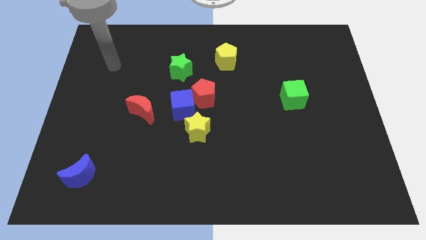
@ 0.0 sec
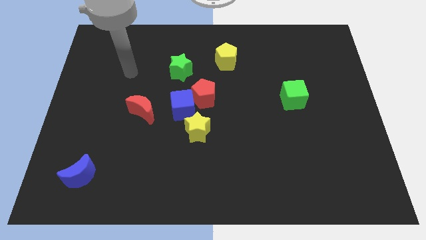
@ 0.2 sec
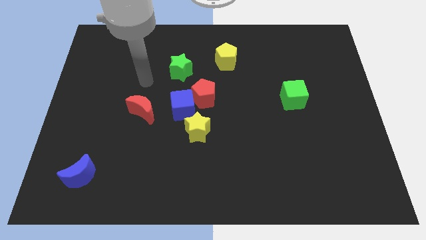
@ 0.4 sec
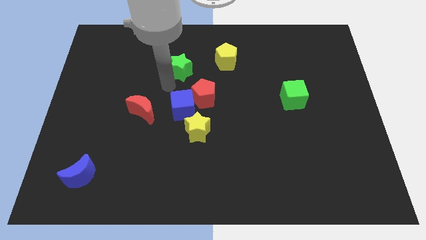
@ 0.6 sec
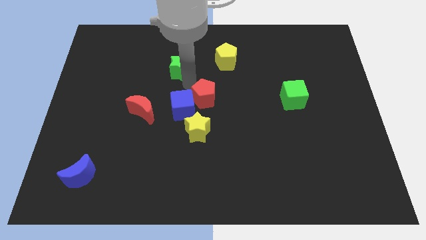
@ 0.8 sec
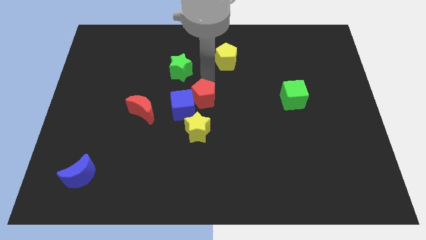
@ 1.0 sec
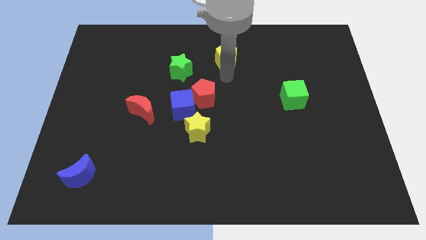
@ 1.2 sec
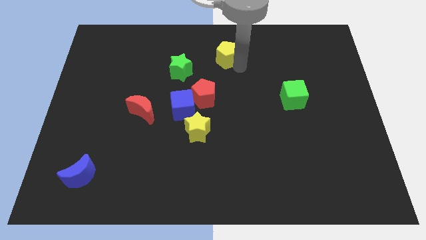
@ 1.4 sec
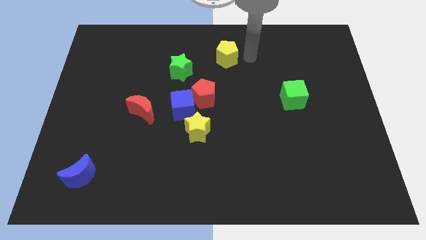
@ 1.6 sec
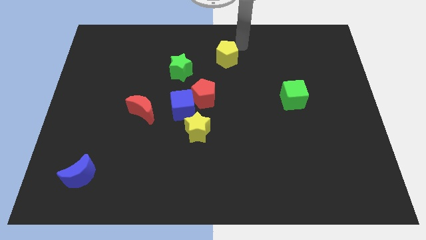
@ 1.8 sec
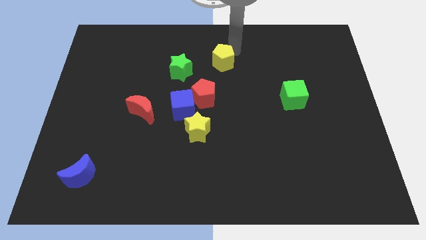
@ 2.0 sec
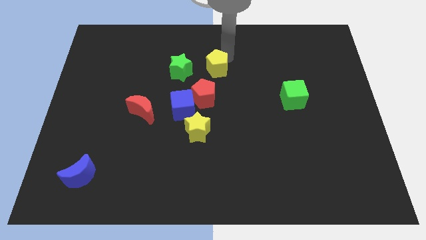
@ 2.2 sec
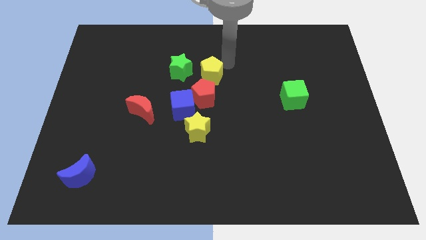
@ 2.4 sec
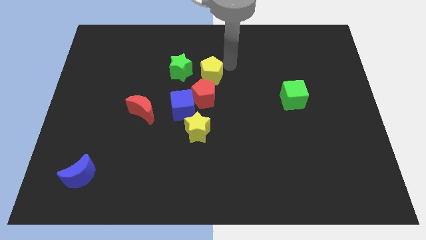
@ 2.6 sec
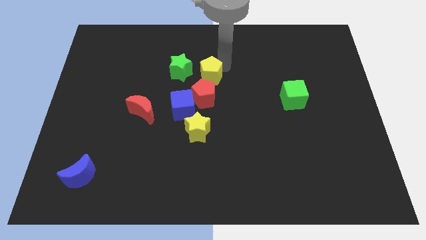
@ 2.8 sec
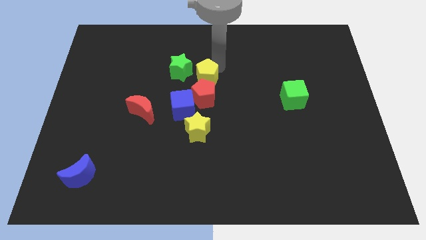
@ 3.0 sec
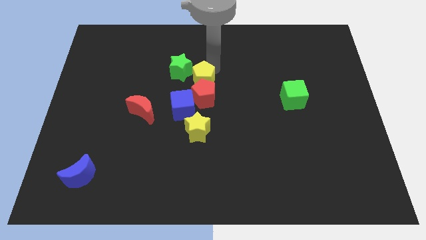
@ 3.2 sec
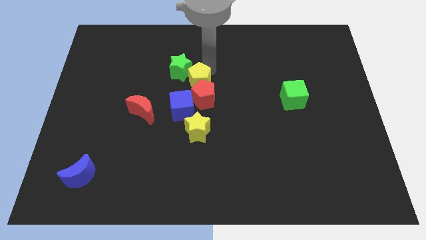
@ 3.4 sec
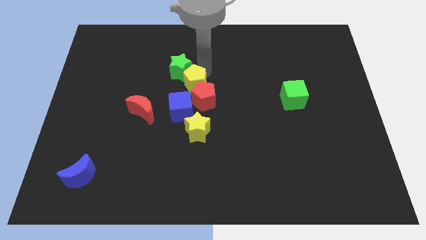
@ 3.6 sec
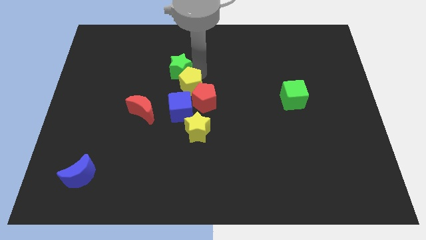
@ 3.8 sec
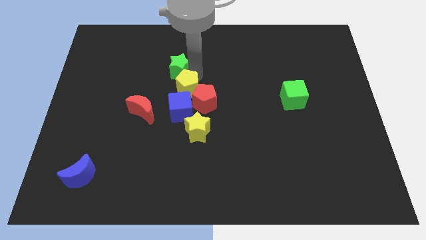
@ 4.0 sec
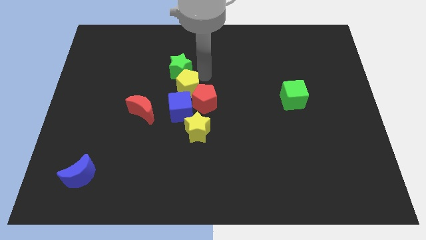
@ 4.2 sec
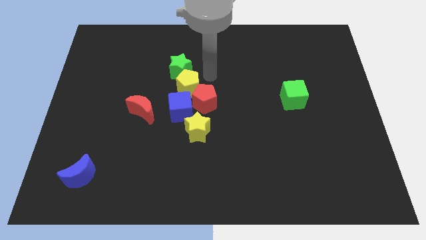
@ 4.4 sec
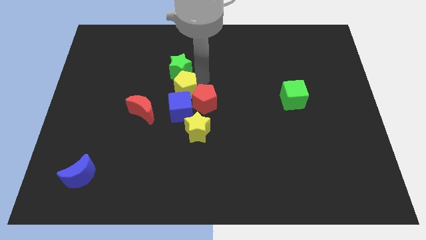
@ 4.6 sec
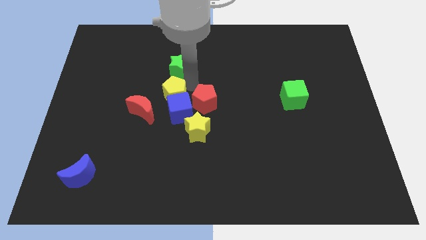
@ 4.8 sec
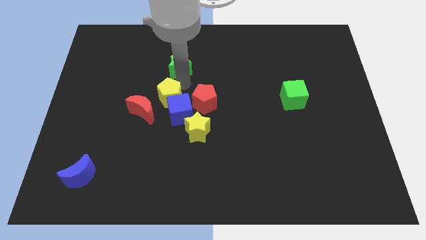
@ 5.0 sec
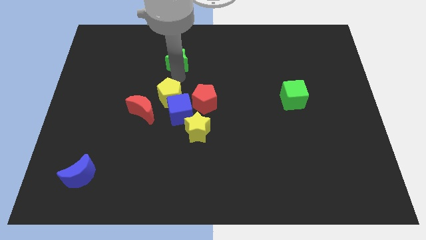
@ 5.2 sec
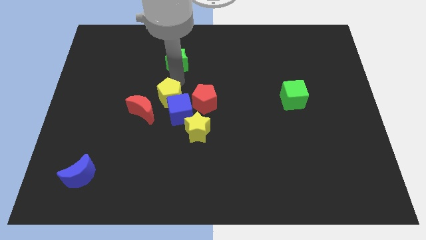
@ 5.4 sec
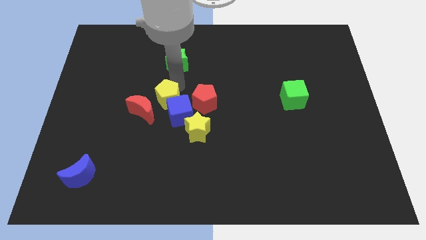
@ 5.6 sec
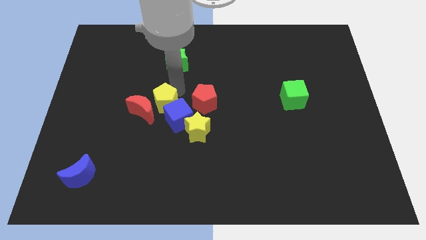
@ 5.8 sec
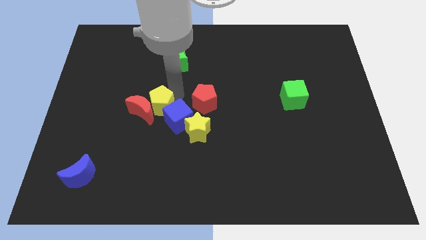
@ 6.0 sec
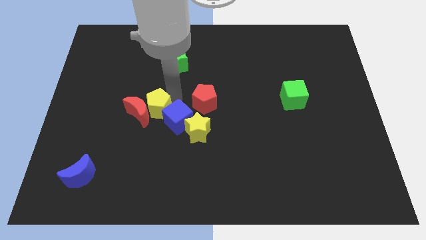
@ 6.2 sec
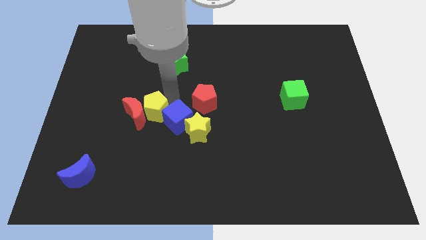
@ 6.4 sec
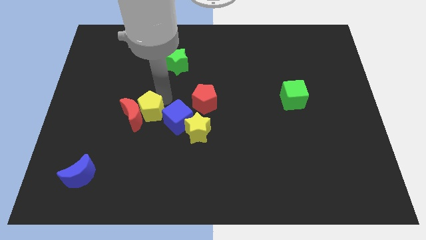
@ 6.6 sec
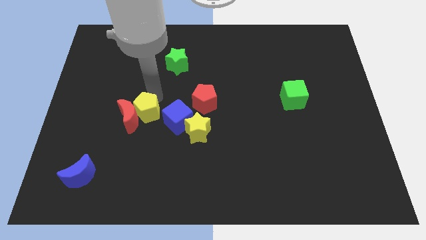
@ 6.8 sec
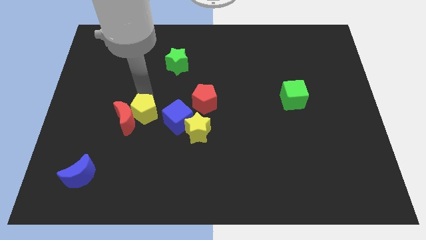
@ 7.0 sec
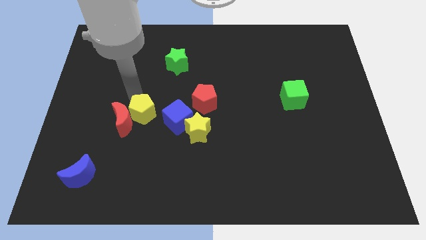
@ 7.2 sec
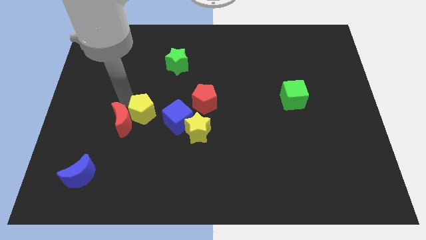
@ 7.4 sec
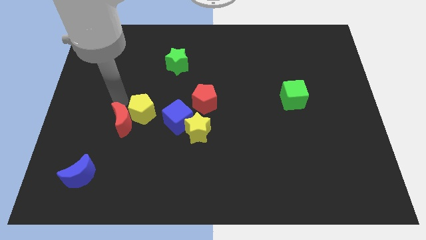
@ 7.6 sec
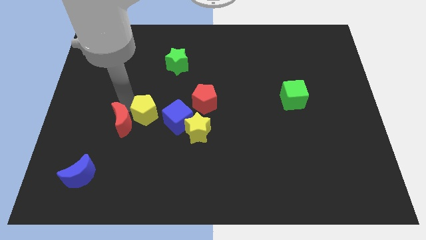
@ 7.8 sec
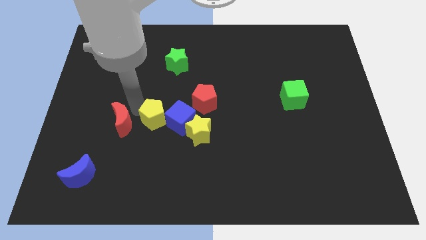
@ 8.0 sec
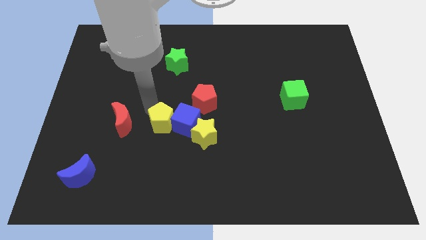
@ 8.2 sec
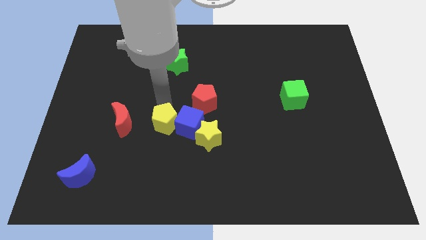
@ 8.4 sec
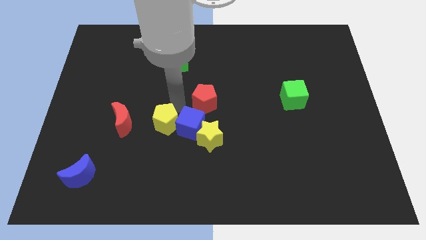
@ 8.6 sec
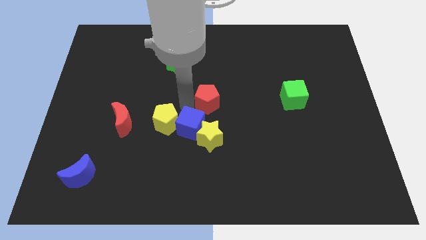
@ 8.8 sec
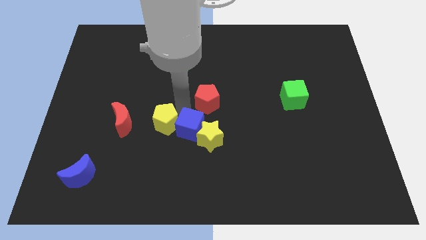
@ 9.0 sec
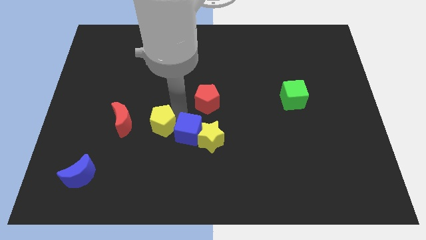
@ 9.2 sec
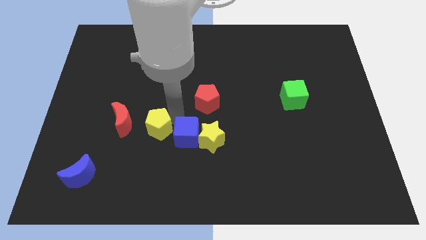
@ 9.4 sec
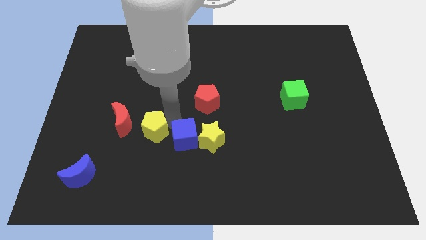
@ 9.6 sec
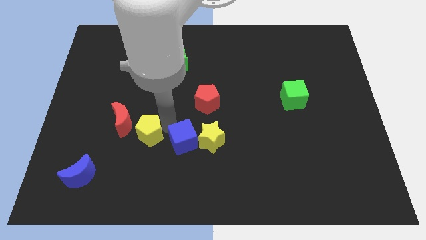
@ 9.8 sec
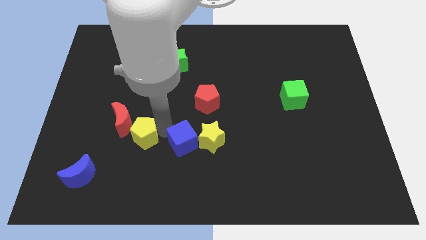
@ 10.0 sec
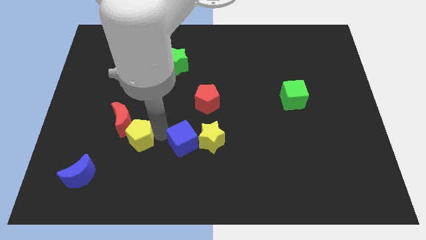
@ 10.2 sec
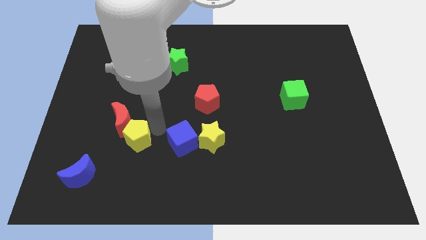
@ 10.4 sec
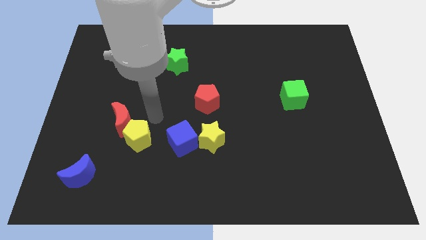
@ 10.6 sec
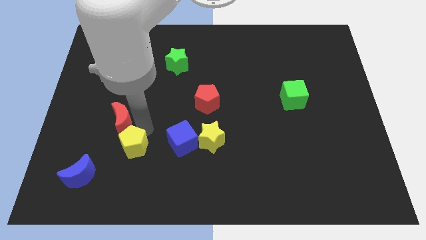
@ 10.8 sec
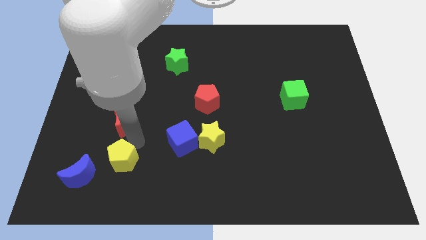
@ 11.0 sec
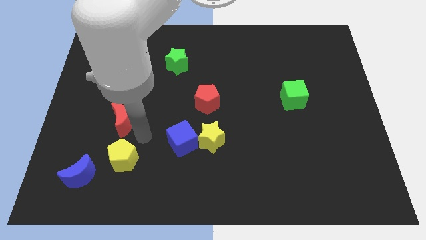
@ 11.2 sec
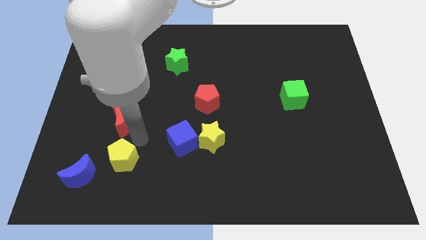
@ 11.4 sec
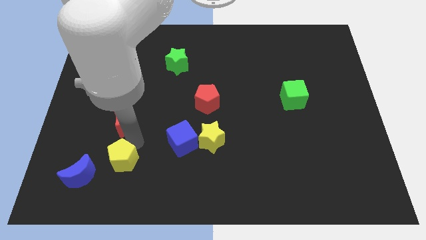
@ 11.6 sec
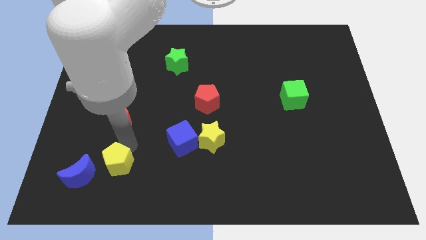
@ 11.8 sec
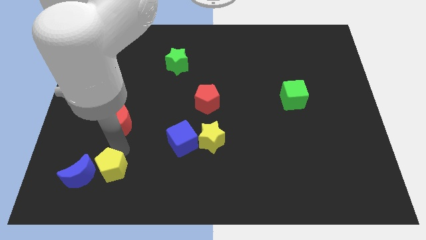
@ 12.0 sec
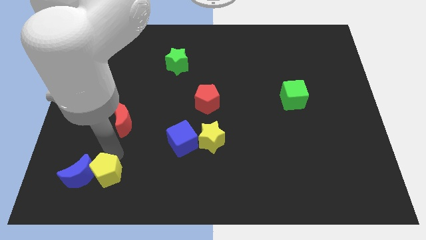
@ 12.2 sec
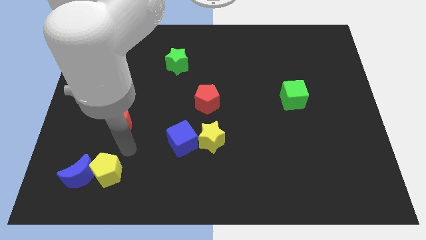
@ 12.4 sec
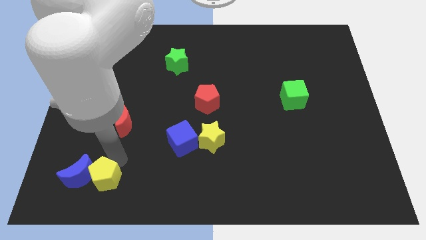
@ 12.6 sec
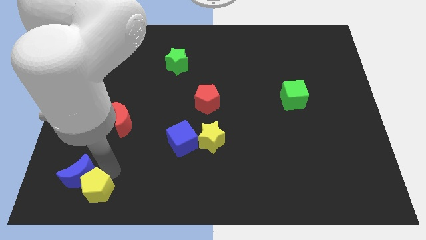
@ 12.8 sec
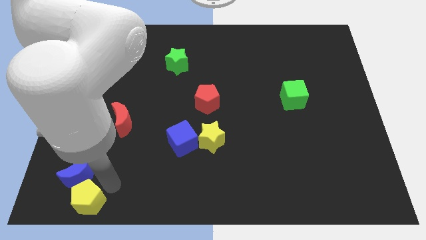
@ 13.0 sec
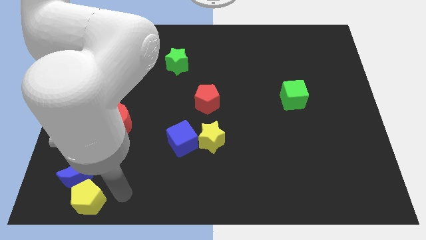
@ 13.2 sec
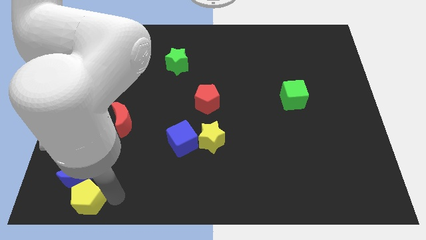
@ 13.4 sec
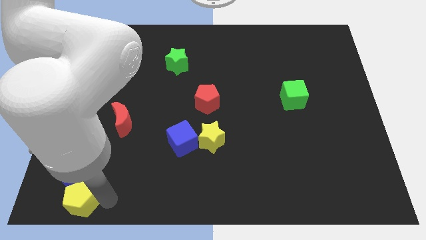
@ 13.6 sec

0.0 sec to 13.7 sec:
move the yellow pentagon to the bottom left

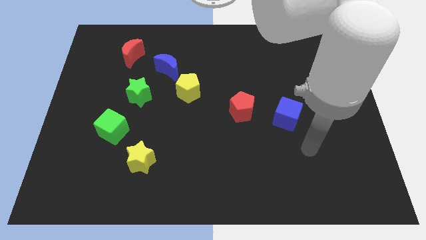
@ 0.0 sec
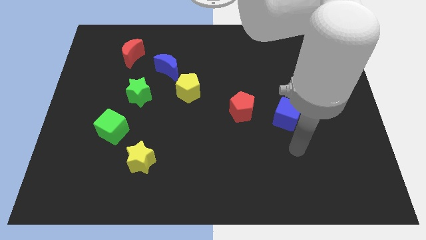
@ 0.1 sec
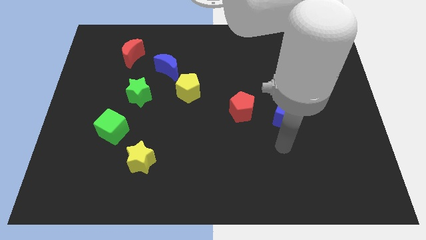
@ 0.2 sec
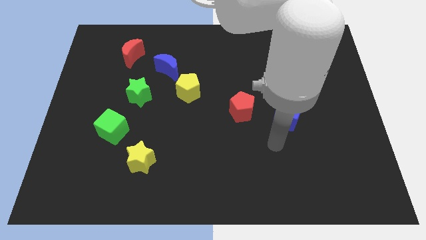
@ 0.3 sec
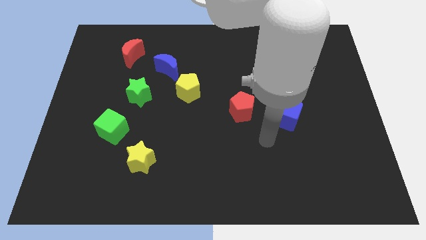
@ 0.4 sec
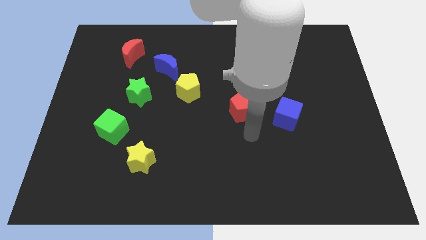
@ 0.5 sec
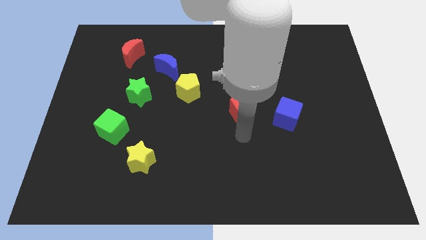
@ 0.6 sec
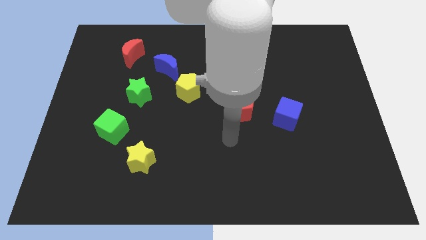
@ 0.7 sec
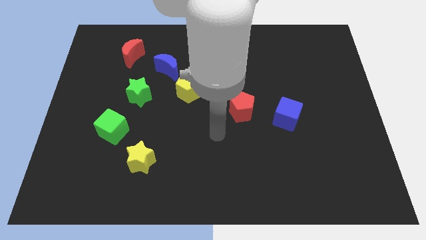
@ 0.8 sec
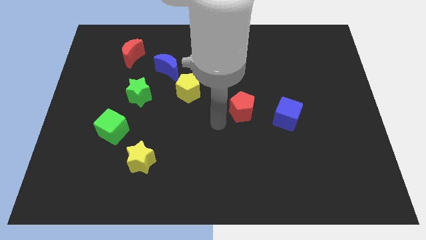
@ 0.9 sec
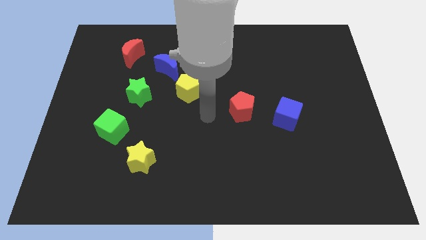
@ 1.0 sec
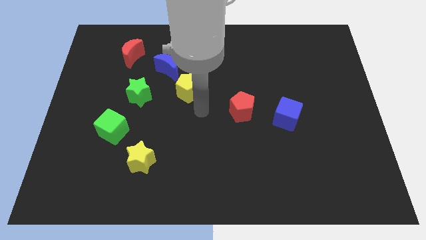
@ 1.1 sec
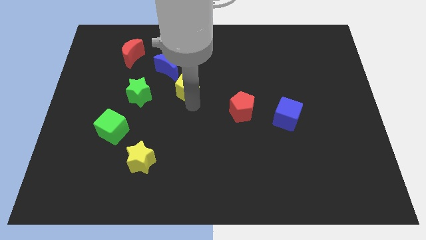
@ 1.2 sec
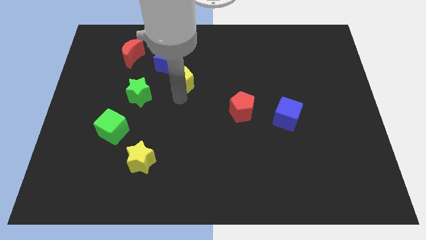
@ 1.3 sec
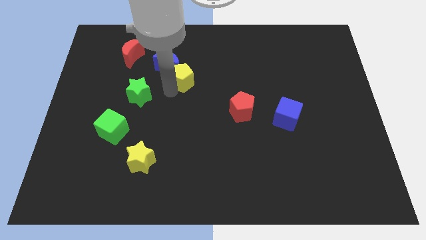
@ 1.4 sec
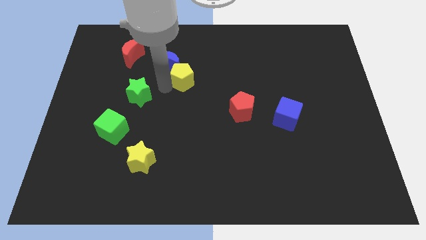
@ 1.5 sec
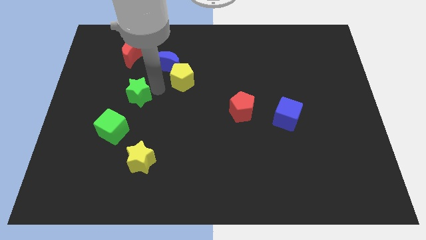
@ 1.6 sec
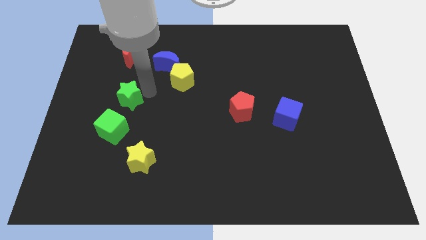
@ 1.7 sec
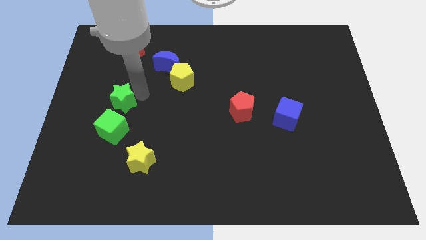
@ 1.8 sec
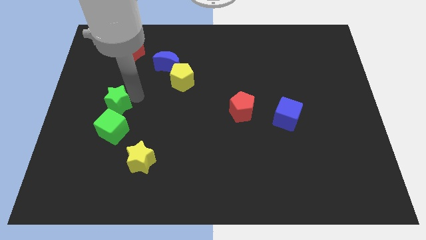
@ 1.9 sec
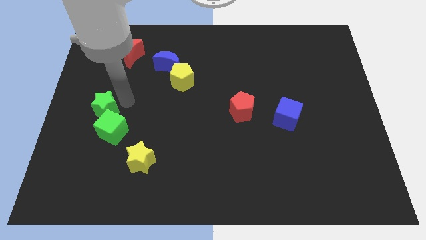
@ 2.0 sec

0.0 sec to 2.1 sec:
move the green star to the left side
